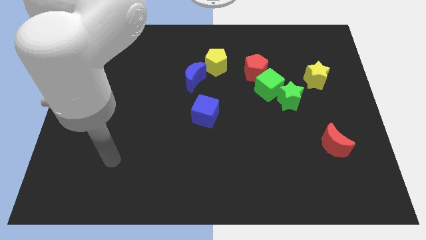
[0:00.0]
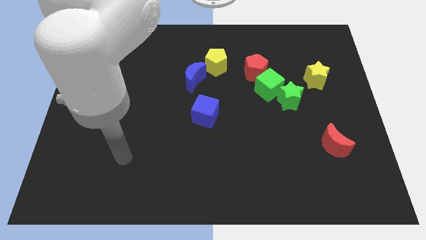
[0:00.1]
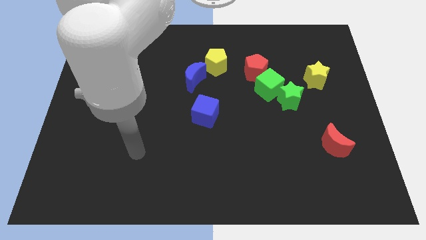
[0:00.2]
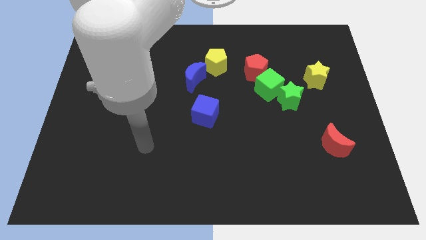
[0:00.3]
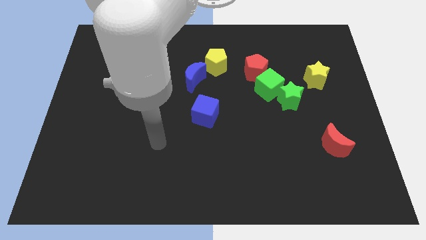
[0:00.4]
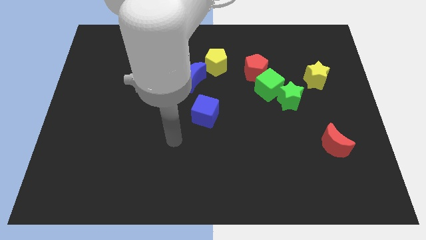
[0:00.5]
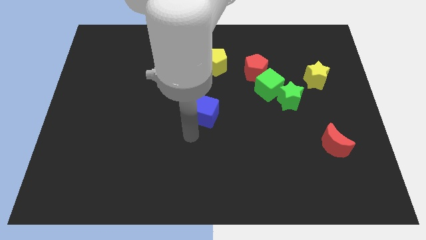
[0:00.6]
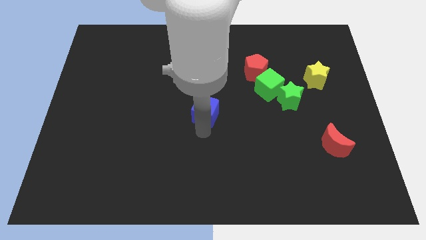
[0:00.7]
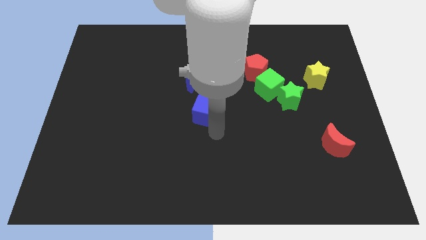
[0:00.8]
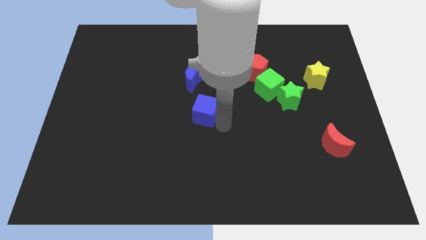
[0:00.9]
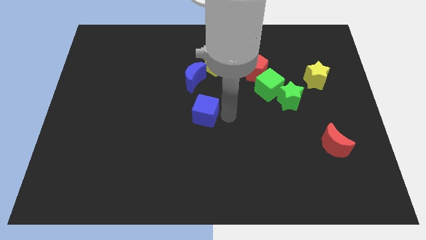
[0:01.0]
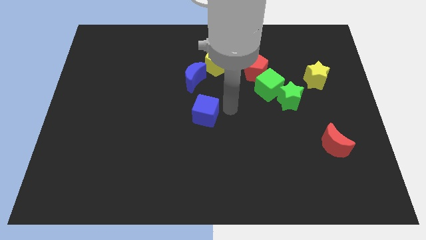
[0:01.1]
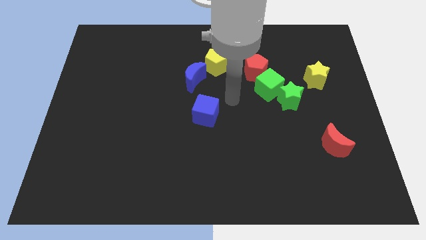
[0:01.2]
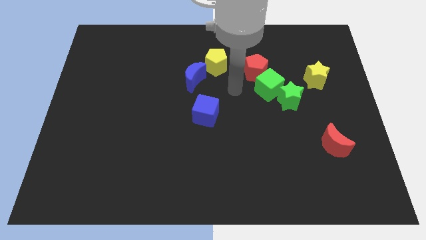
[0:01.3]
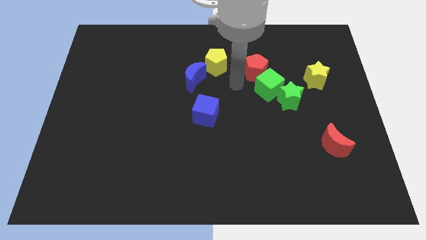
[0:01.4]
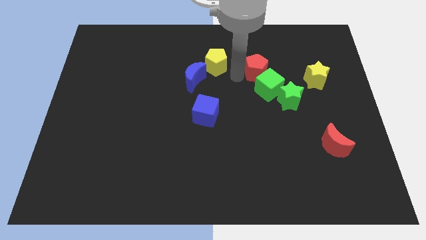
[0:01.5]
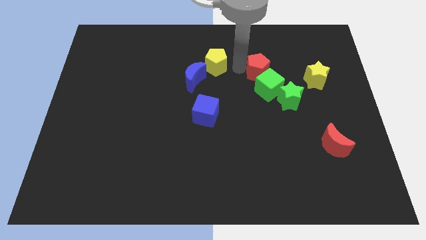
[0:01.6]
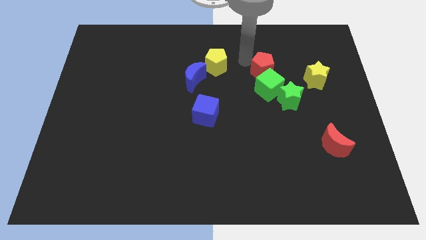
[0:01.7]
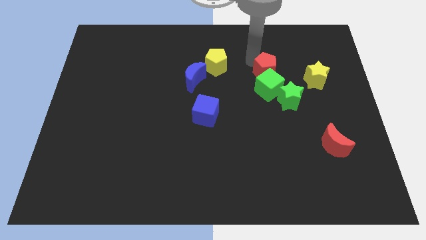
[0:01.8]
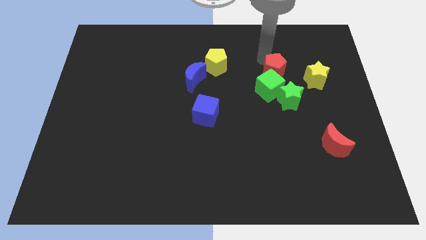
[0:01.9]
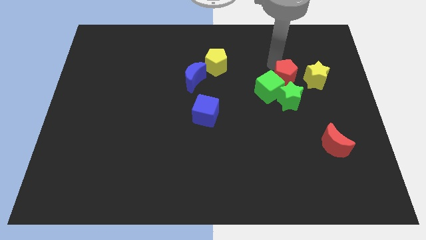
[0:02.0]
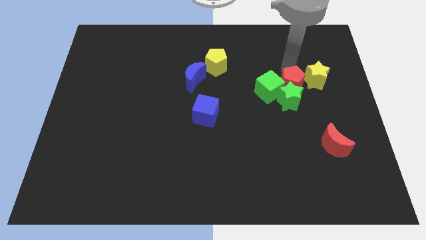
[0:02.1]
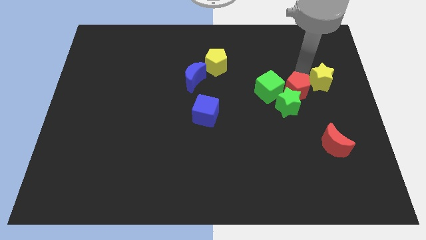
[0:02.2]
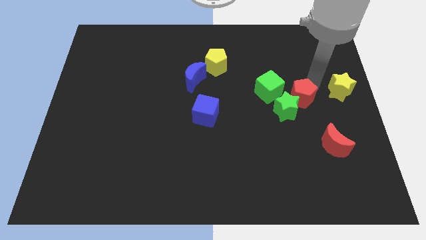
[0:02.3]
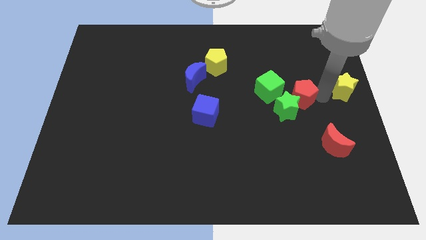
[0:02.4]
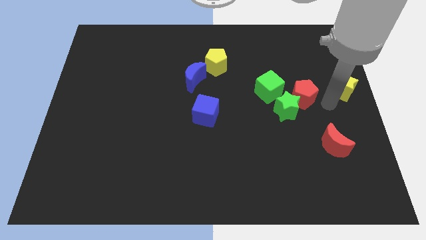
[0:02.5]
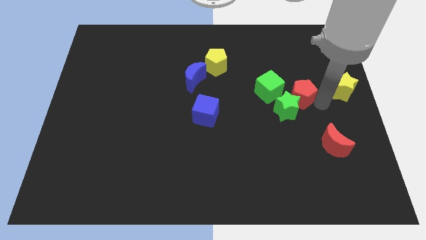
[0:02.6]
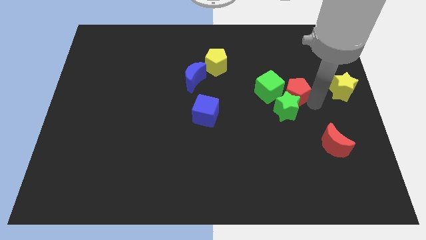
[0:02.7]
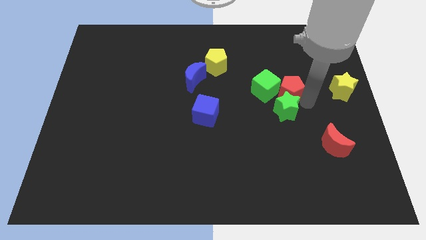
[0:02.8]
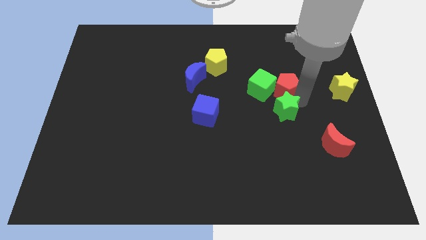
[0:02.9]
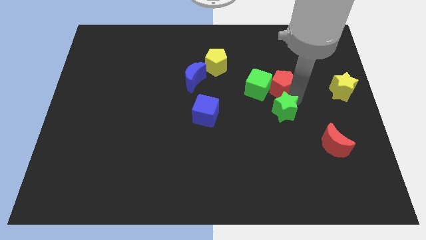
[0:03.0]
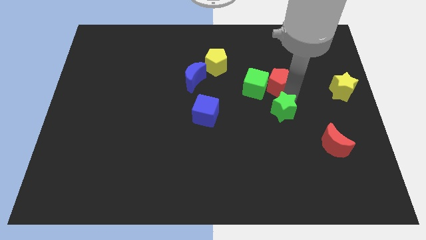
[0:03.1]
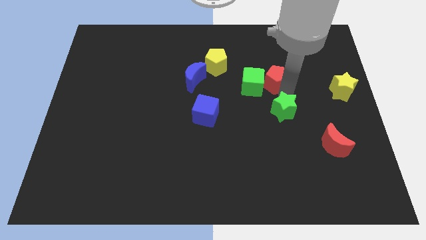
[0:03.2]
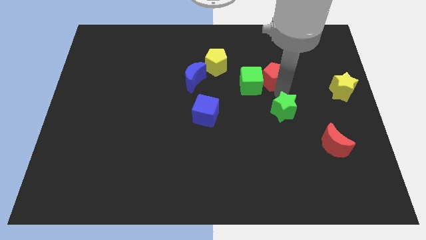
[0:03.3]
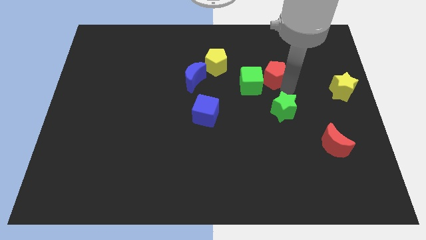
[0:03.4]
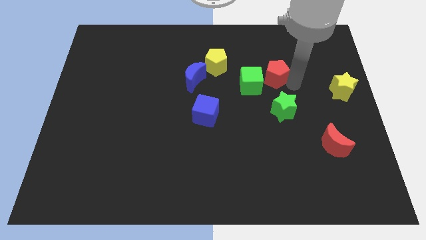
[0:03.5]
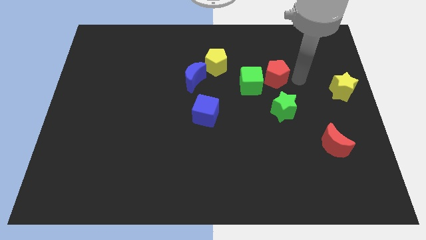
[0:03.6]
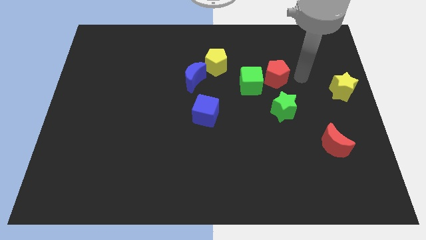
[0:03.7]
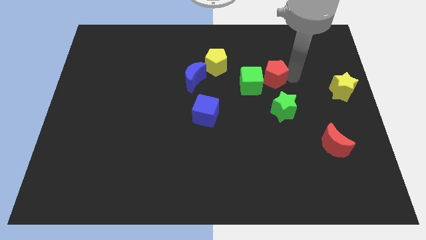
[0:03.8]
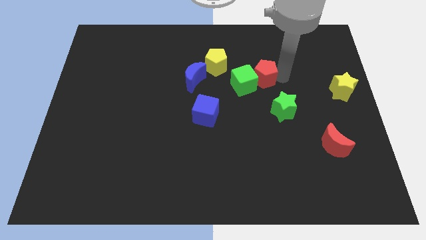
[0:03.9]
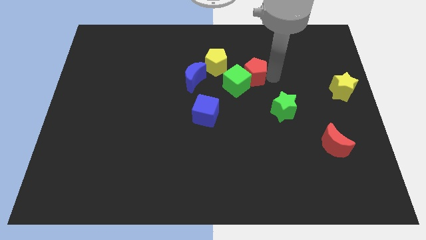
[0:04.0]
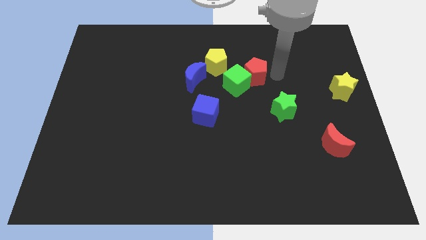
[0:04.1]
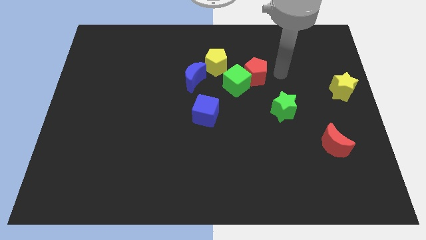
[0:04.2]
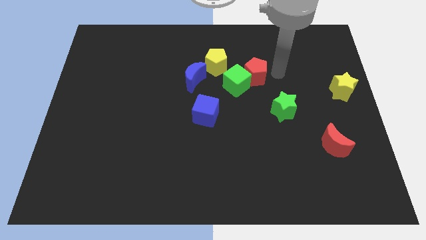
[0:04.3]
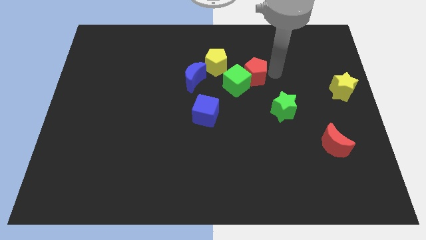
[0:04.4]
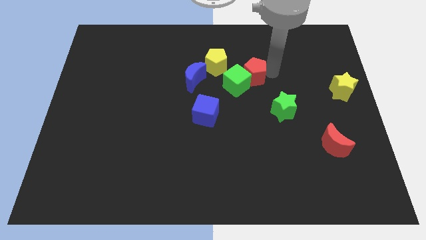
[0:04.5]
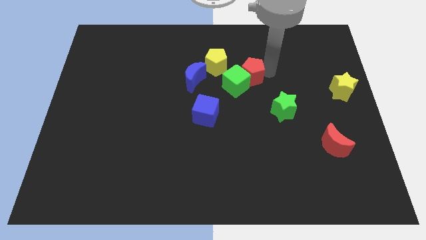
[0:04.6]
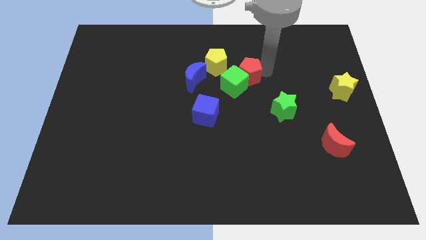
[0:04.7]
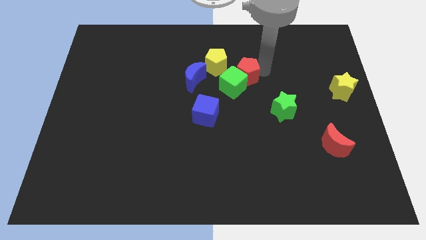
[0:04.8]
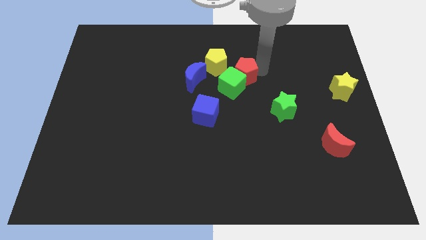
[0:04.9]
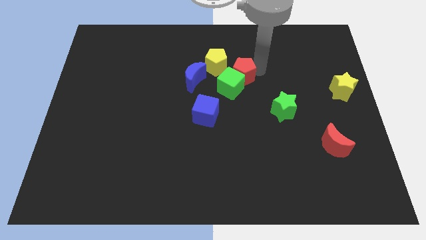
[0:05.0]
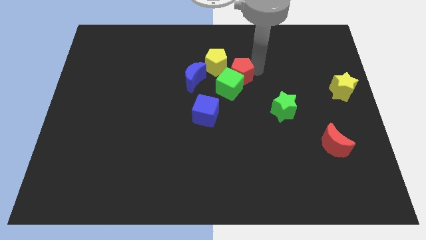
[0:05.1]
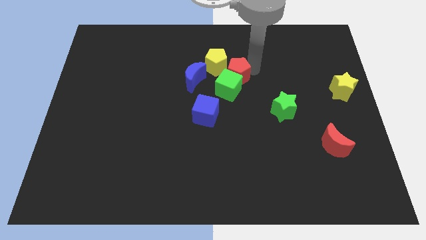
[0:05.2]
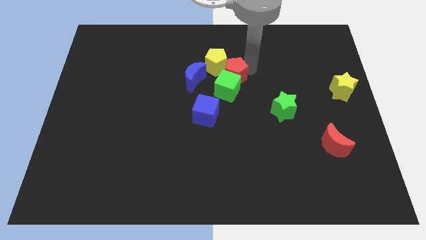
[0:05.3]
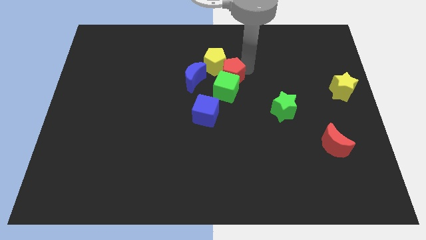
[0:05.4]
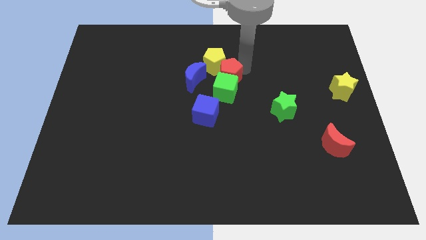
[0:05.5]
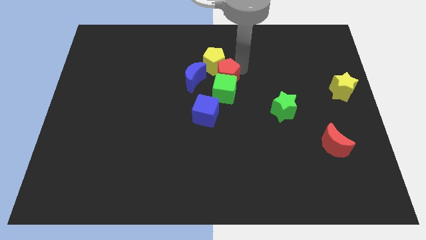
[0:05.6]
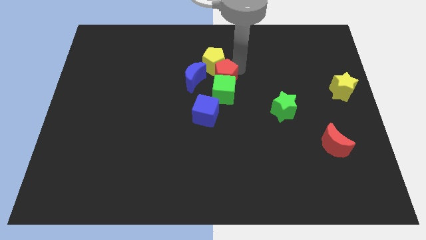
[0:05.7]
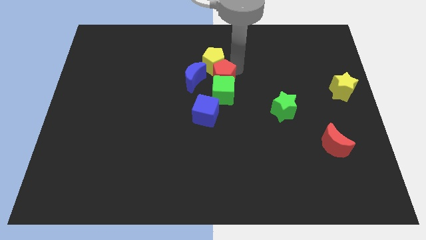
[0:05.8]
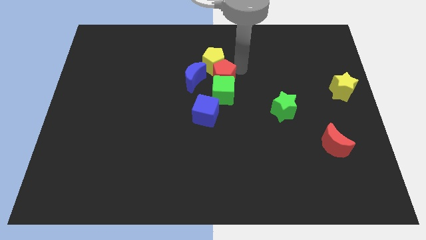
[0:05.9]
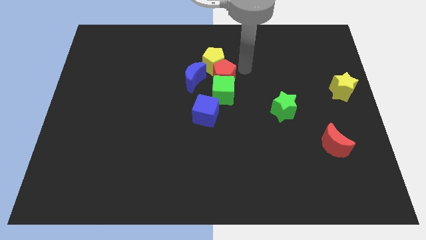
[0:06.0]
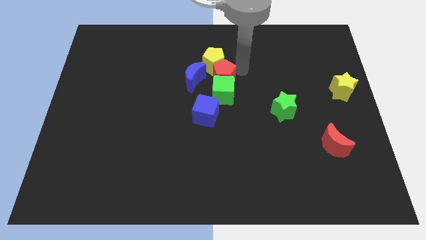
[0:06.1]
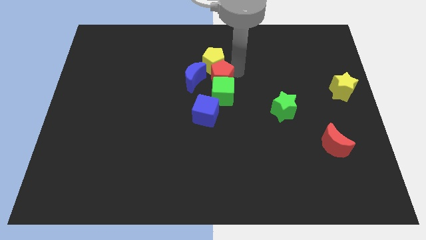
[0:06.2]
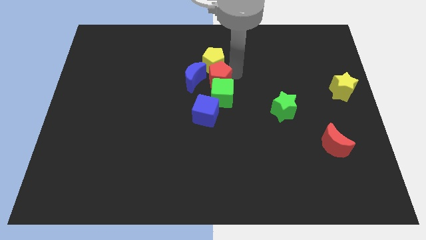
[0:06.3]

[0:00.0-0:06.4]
put the red pentagon close to the blue moon
